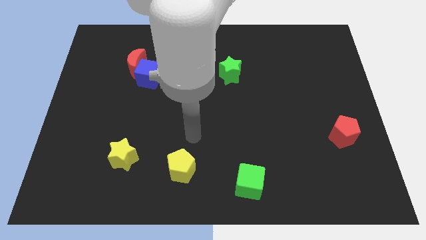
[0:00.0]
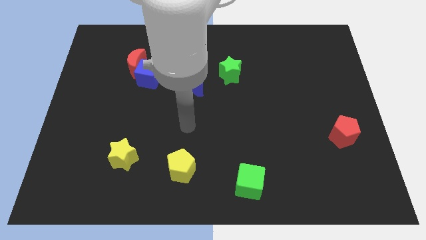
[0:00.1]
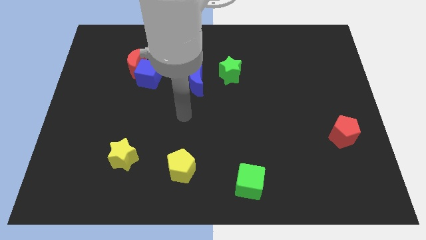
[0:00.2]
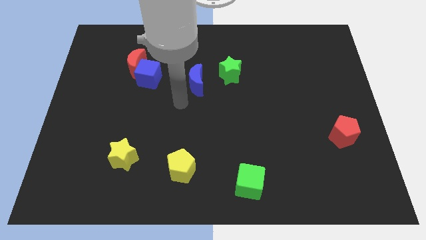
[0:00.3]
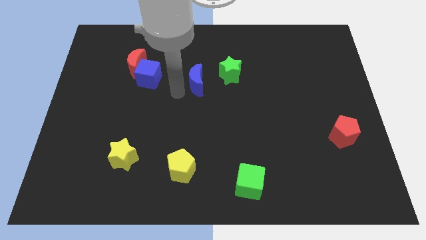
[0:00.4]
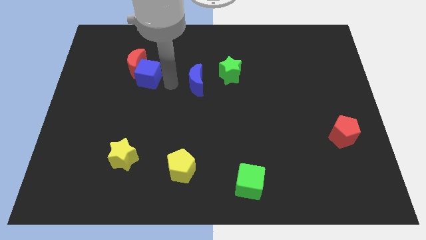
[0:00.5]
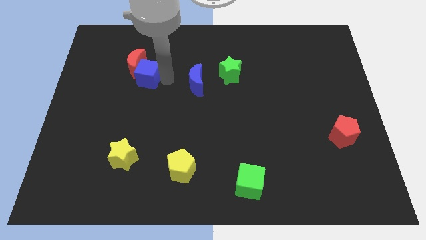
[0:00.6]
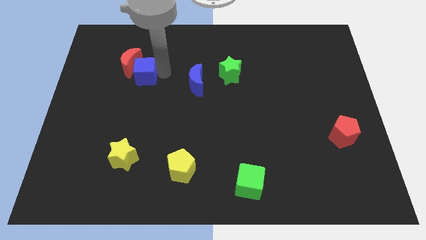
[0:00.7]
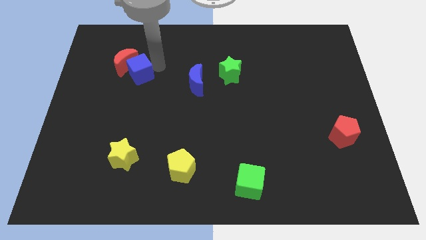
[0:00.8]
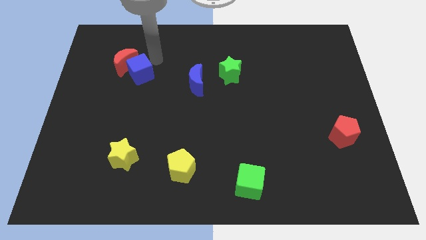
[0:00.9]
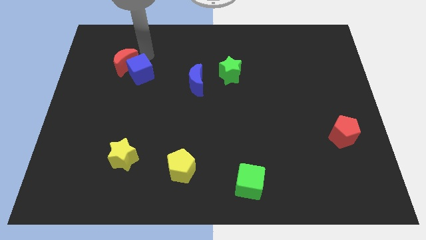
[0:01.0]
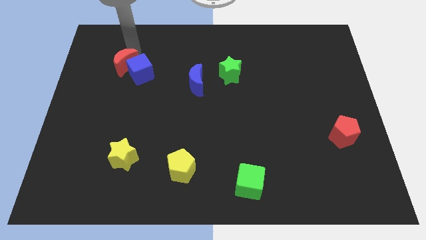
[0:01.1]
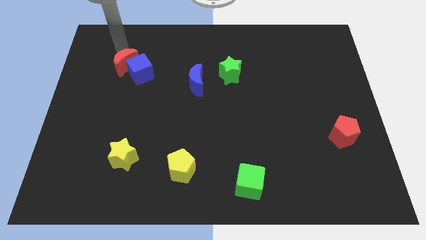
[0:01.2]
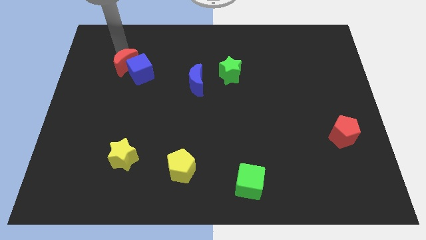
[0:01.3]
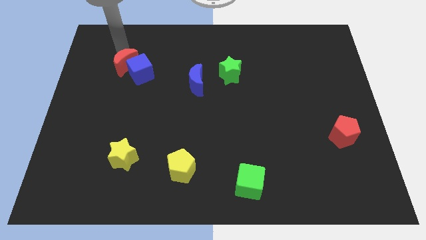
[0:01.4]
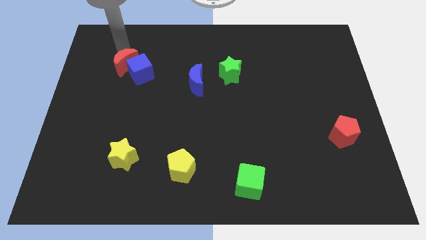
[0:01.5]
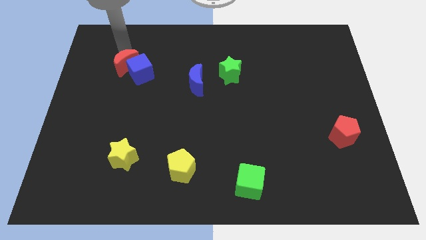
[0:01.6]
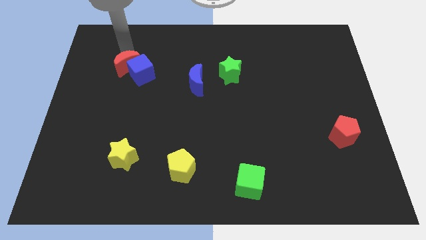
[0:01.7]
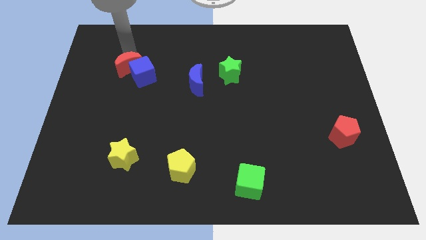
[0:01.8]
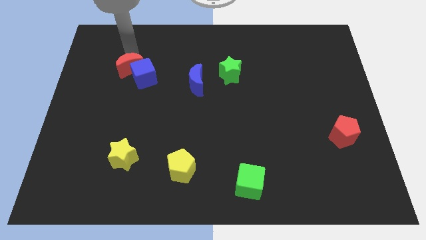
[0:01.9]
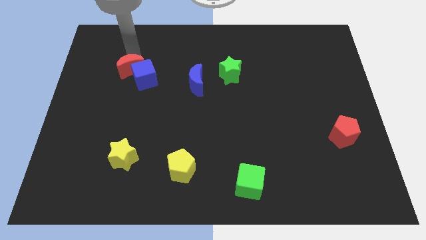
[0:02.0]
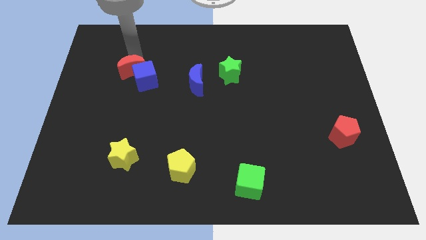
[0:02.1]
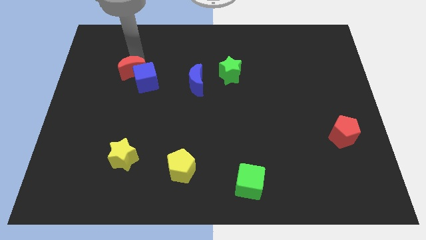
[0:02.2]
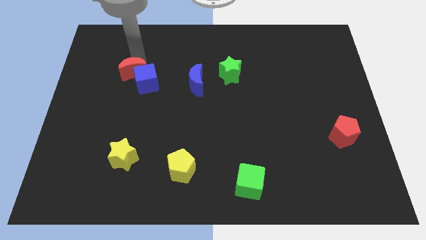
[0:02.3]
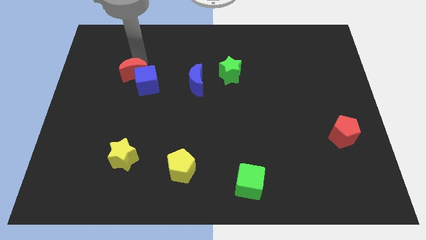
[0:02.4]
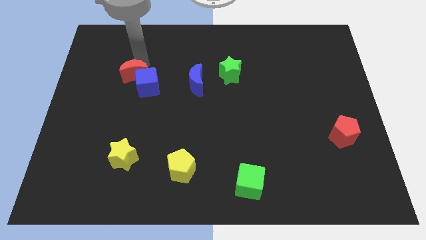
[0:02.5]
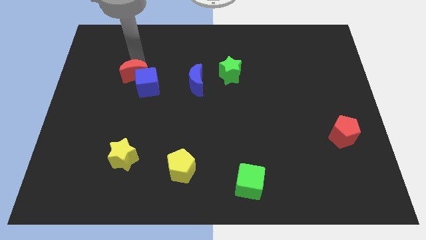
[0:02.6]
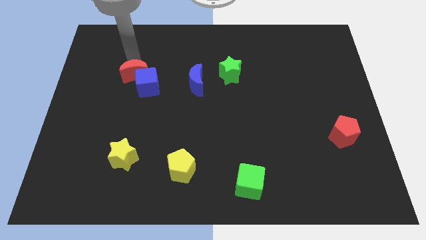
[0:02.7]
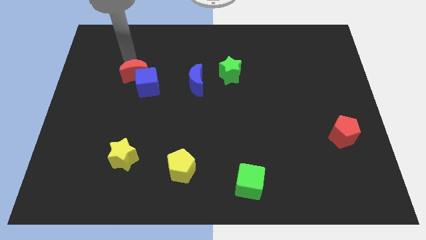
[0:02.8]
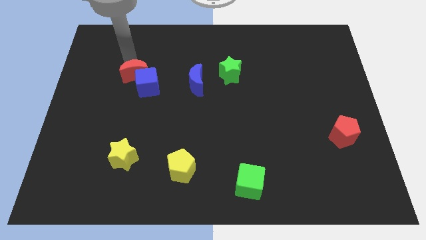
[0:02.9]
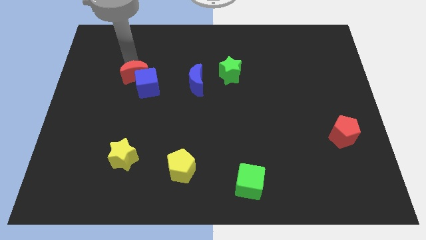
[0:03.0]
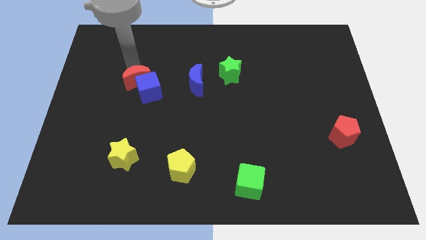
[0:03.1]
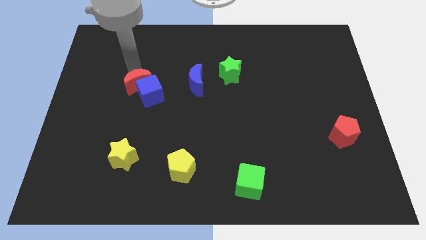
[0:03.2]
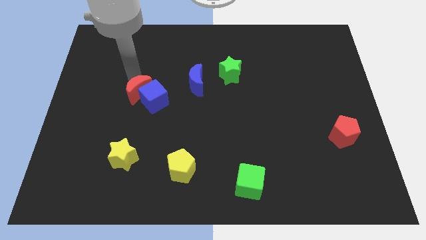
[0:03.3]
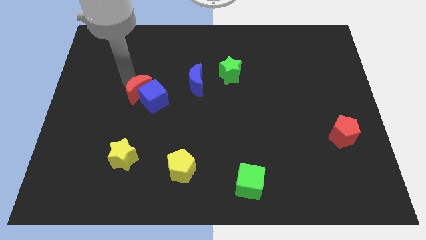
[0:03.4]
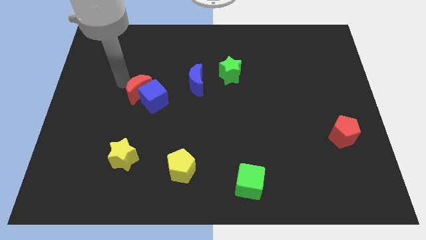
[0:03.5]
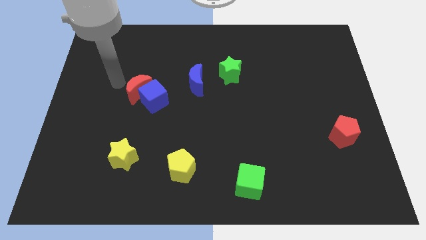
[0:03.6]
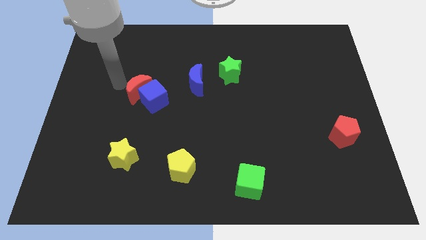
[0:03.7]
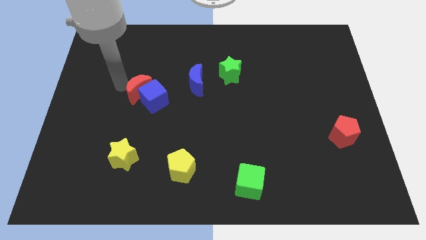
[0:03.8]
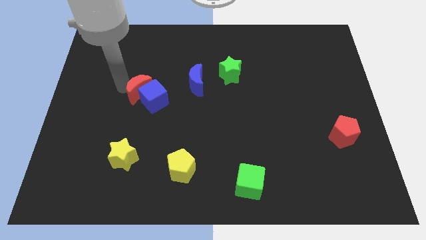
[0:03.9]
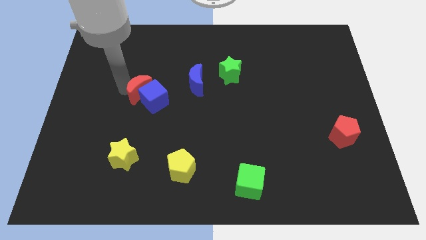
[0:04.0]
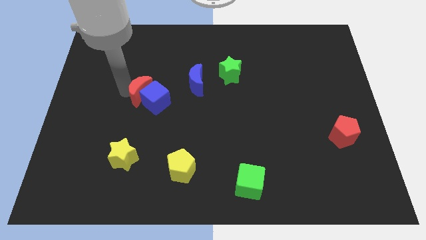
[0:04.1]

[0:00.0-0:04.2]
push the red moon down and right a bit

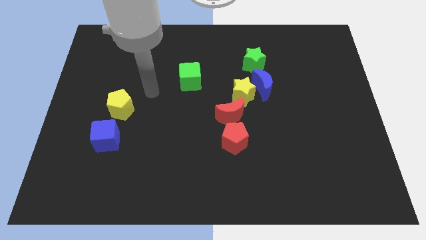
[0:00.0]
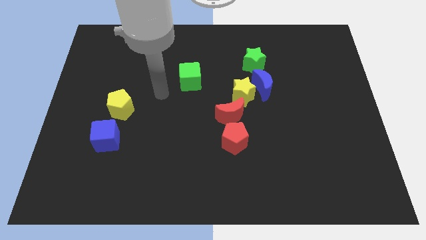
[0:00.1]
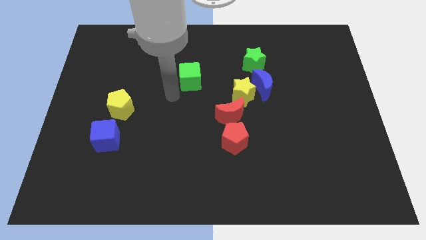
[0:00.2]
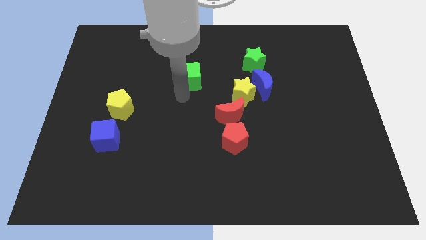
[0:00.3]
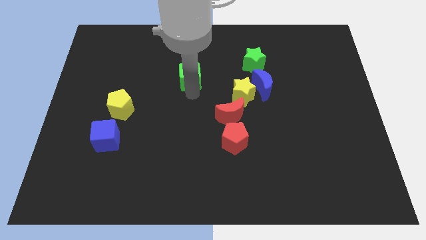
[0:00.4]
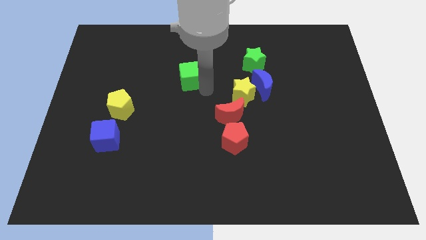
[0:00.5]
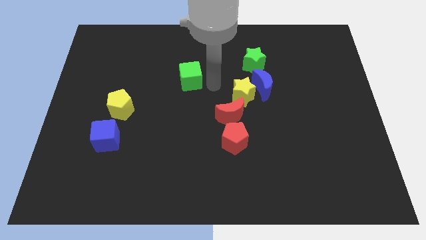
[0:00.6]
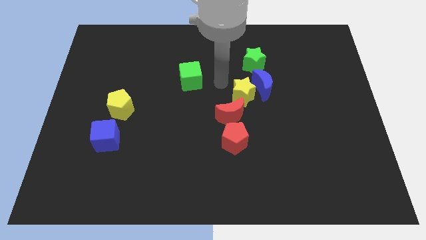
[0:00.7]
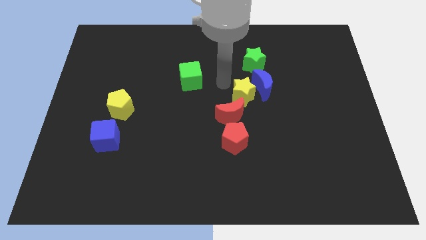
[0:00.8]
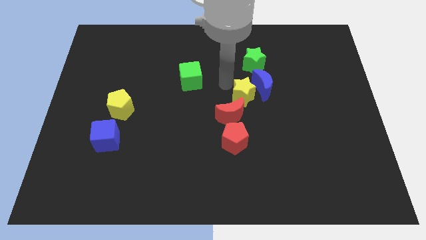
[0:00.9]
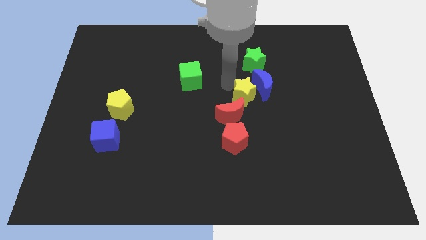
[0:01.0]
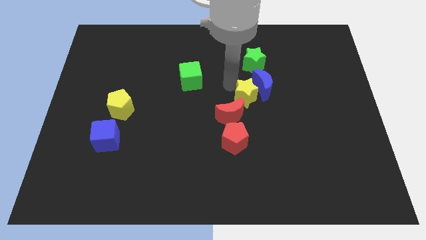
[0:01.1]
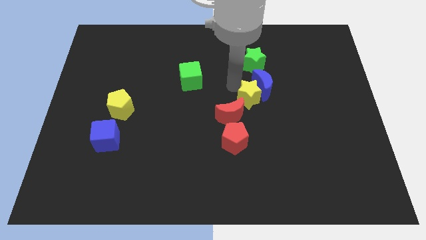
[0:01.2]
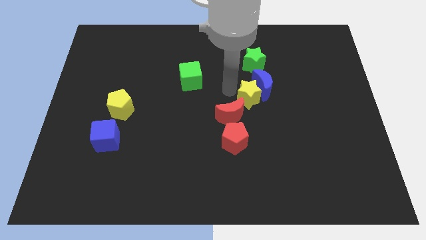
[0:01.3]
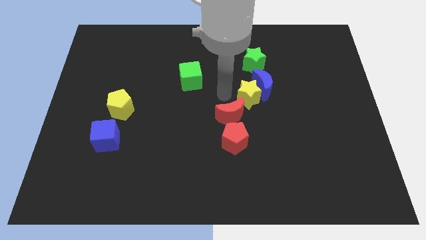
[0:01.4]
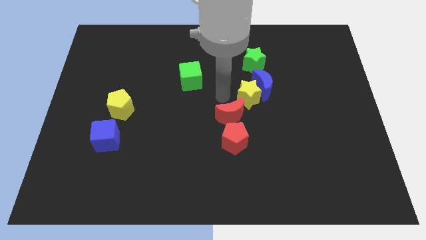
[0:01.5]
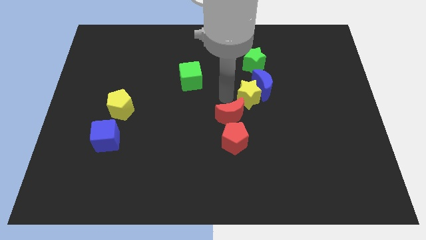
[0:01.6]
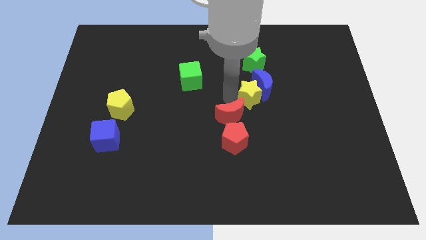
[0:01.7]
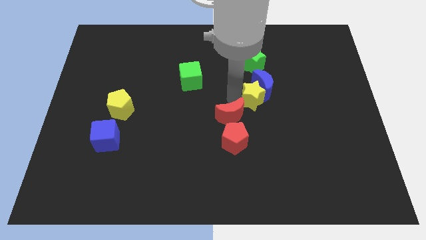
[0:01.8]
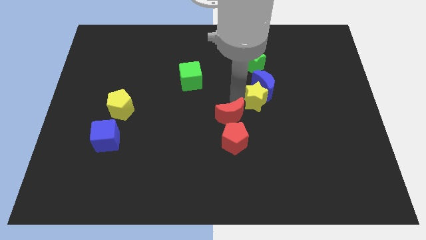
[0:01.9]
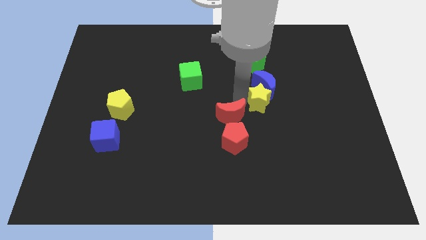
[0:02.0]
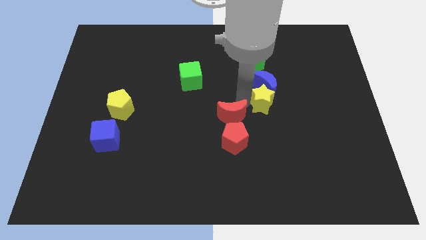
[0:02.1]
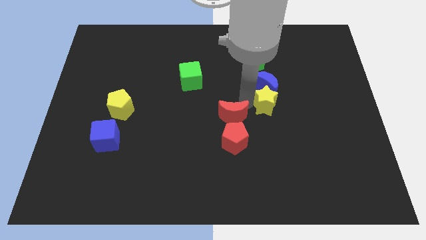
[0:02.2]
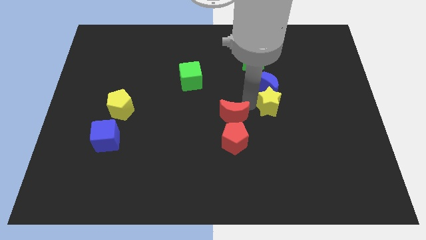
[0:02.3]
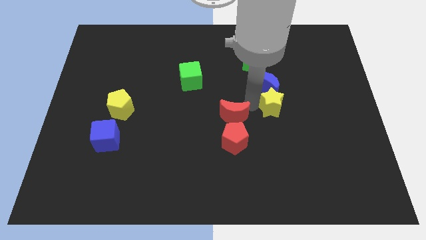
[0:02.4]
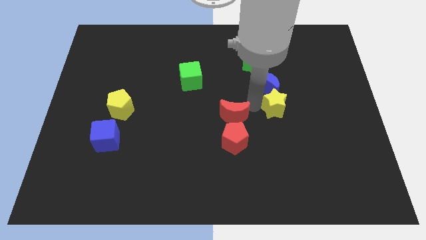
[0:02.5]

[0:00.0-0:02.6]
move the yellow star to the right a little bit

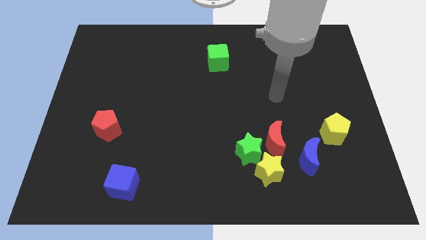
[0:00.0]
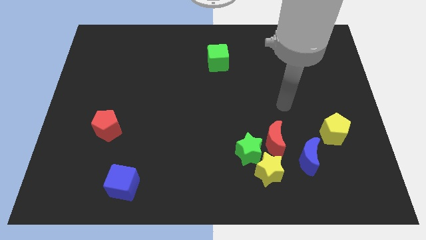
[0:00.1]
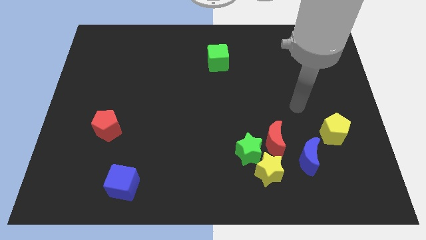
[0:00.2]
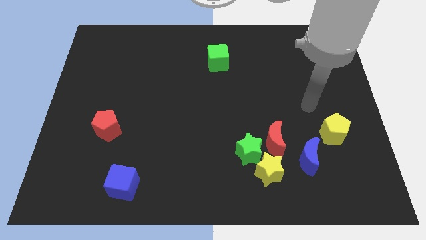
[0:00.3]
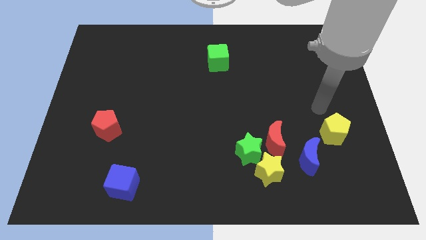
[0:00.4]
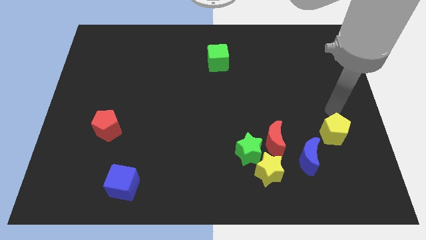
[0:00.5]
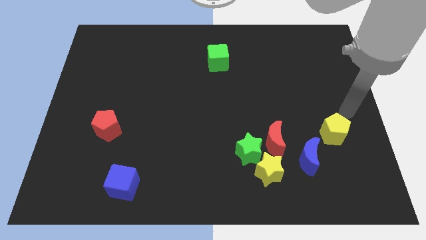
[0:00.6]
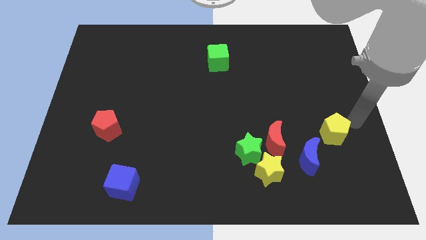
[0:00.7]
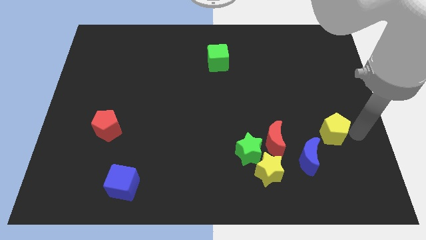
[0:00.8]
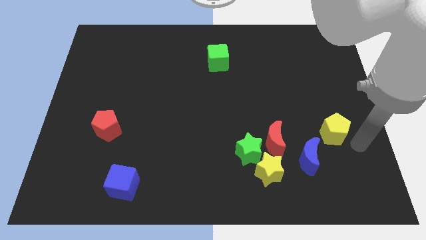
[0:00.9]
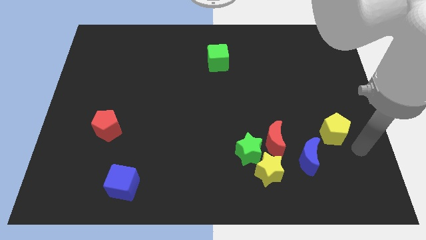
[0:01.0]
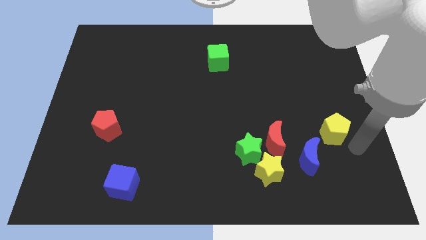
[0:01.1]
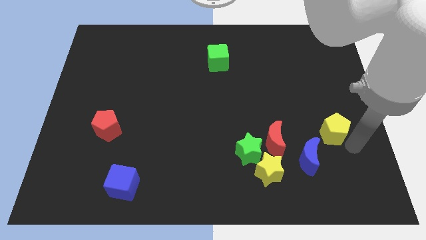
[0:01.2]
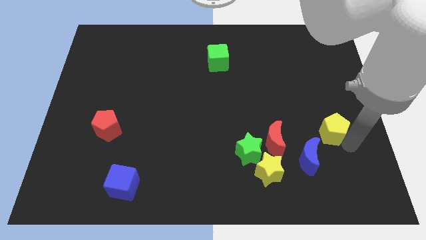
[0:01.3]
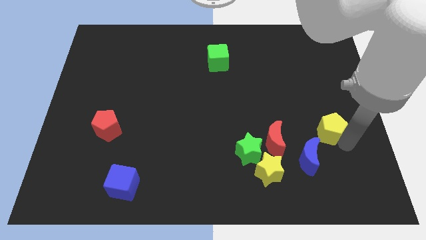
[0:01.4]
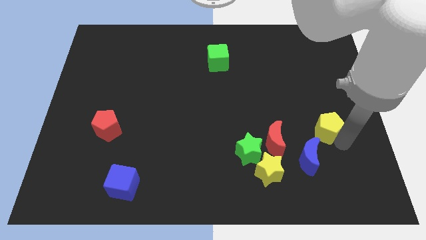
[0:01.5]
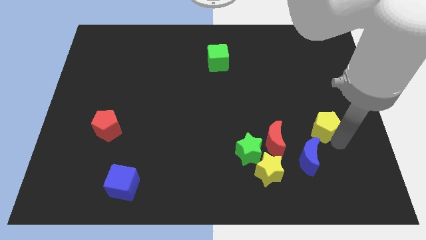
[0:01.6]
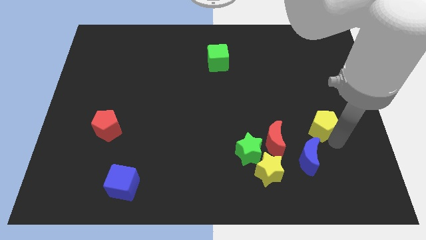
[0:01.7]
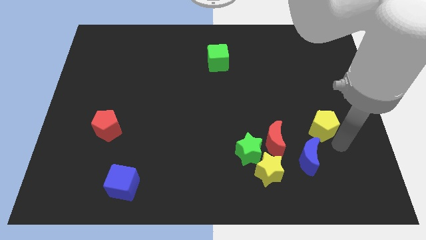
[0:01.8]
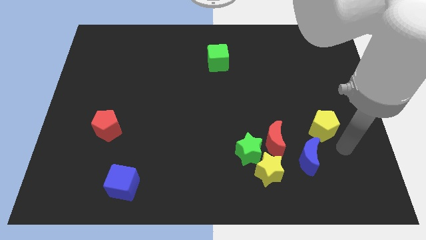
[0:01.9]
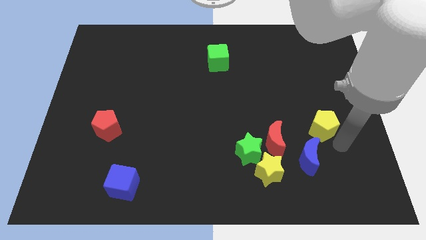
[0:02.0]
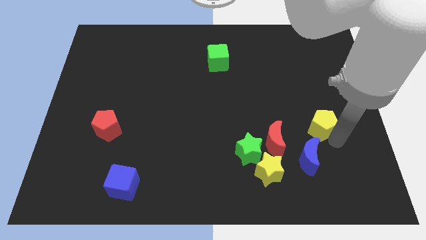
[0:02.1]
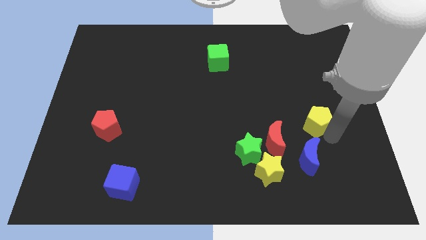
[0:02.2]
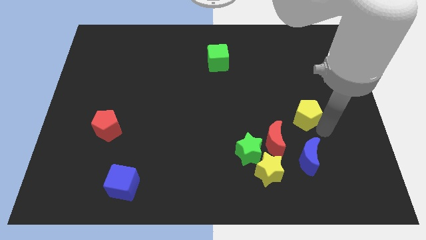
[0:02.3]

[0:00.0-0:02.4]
slide the yellow pentagon a bit upwards and to the left
